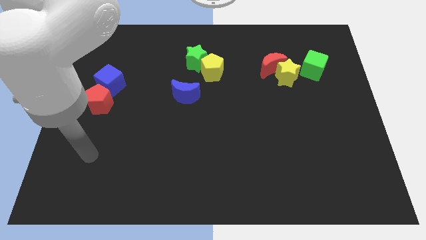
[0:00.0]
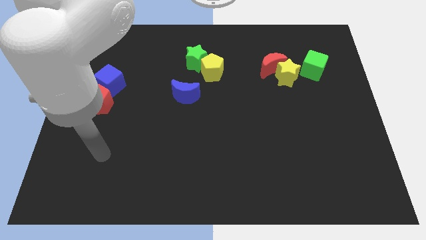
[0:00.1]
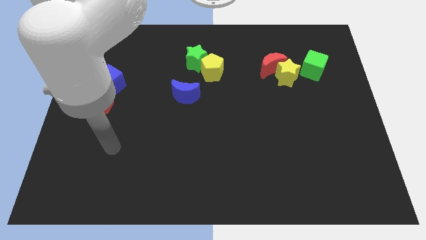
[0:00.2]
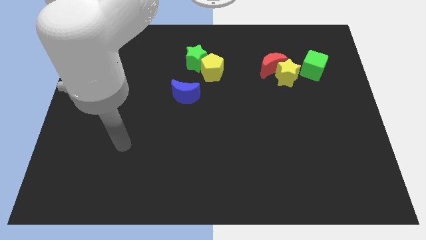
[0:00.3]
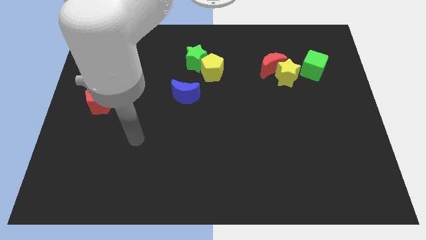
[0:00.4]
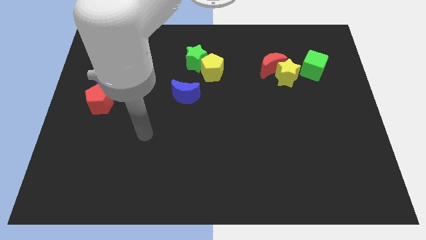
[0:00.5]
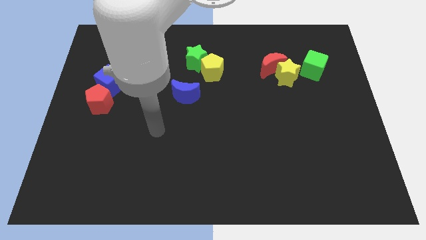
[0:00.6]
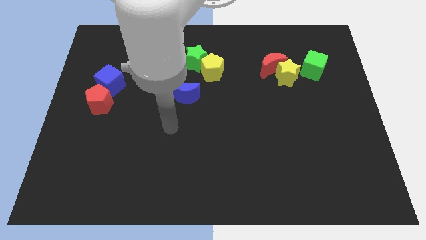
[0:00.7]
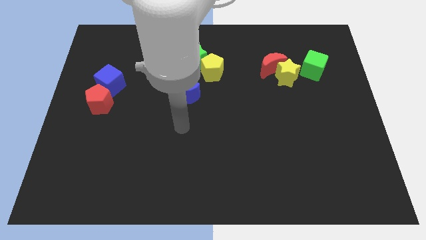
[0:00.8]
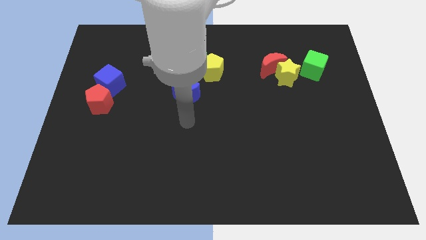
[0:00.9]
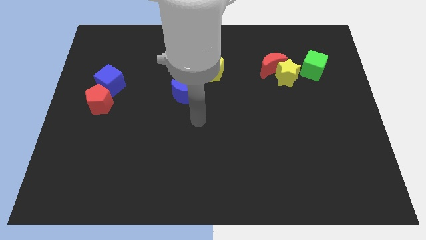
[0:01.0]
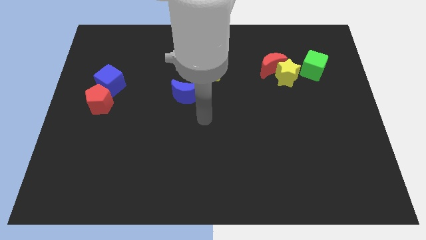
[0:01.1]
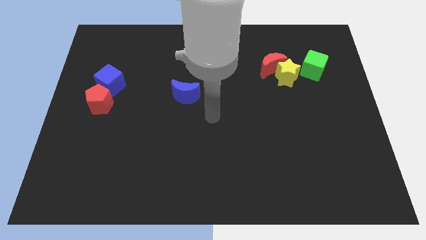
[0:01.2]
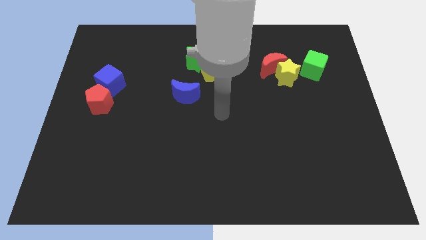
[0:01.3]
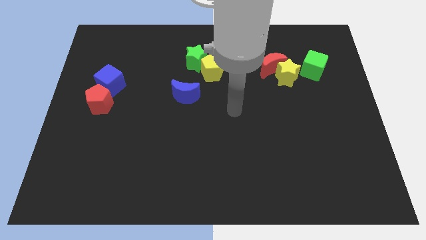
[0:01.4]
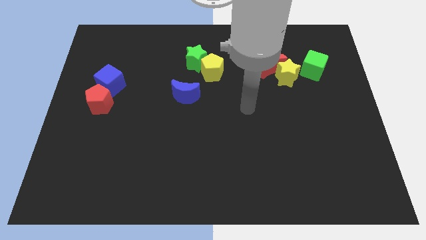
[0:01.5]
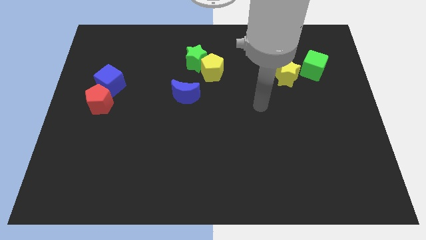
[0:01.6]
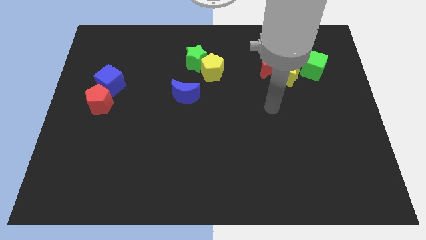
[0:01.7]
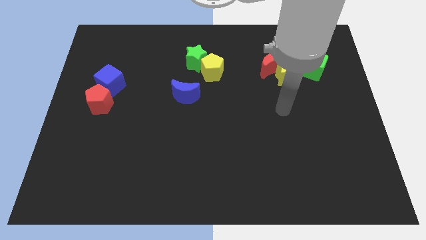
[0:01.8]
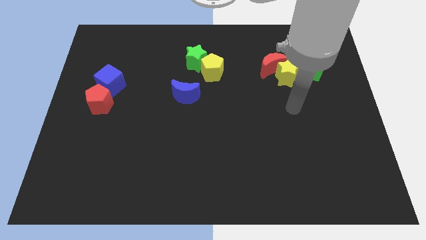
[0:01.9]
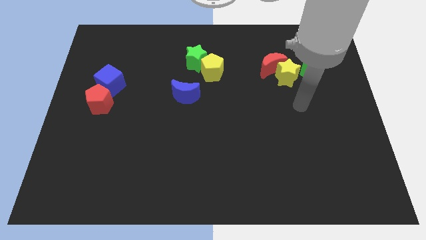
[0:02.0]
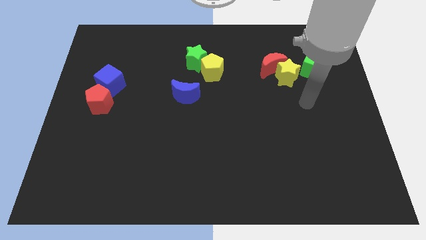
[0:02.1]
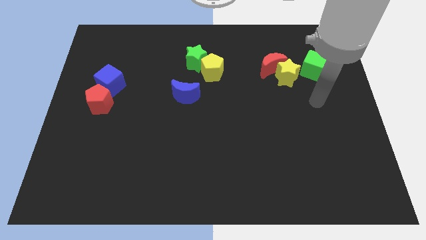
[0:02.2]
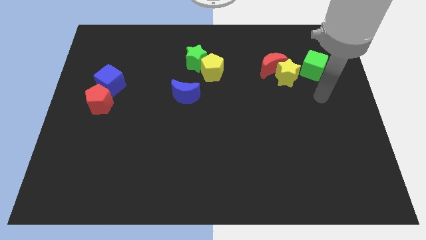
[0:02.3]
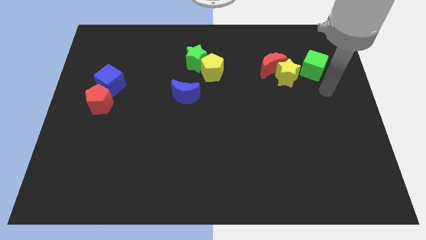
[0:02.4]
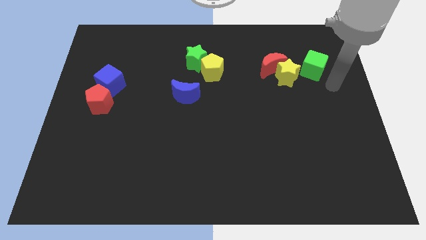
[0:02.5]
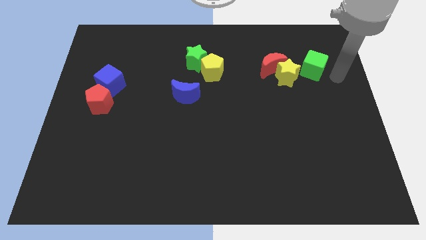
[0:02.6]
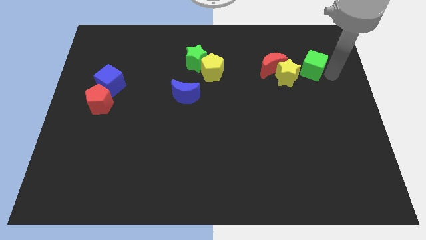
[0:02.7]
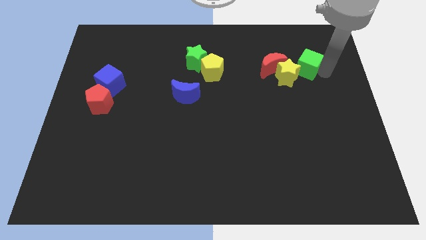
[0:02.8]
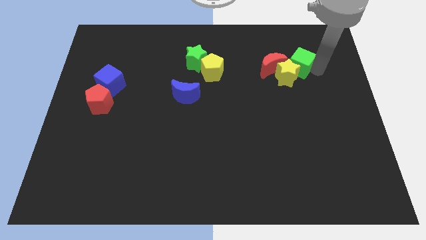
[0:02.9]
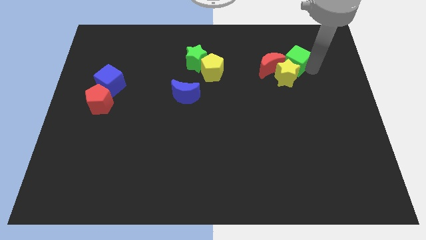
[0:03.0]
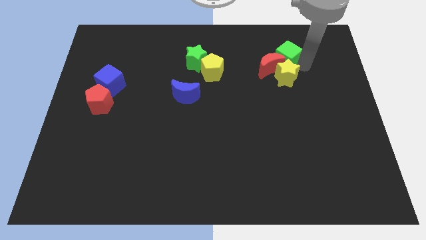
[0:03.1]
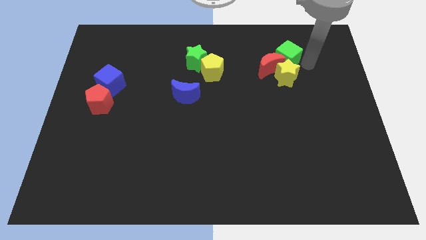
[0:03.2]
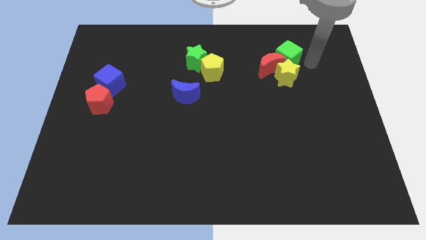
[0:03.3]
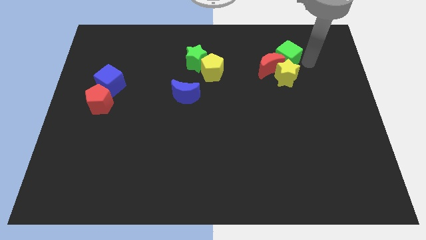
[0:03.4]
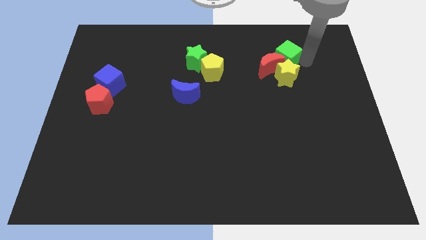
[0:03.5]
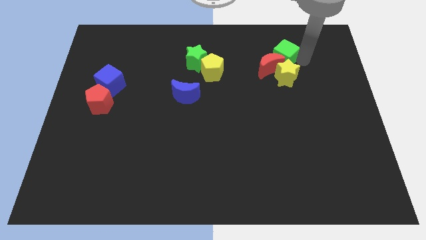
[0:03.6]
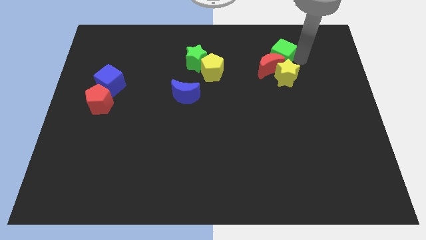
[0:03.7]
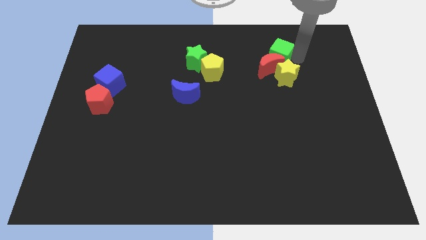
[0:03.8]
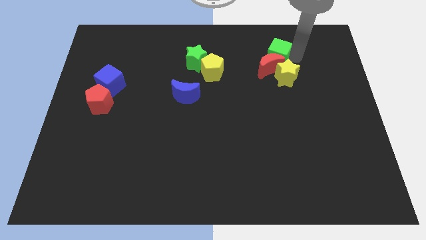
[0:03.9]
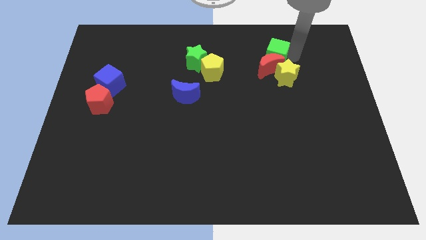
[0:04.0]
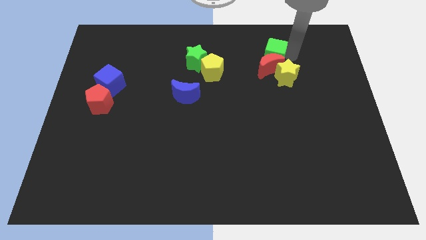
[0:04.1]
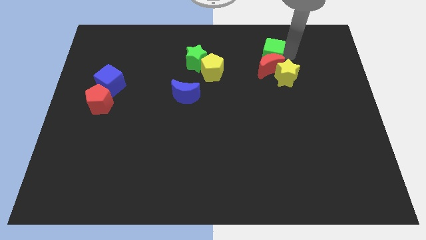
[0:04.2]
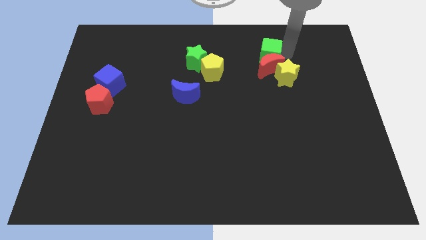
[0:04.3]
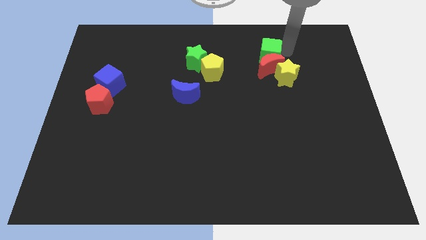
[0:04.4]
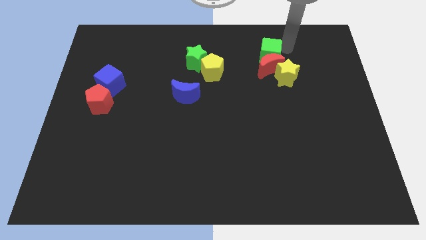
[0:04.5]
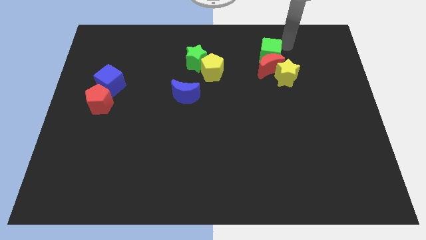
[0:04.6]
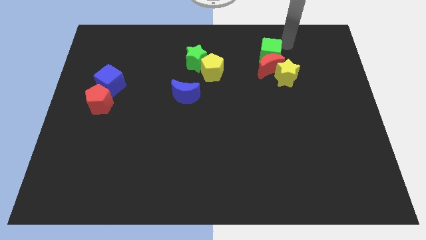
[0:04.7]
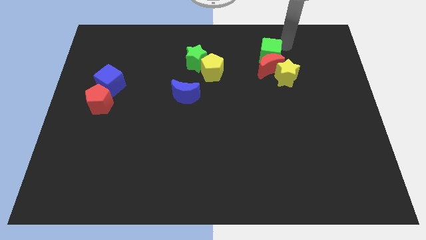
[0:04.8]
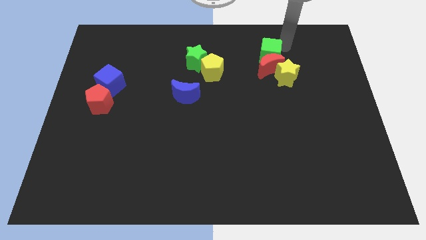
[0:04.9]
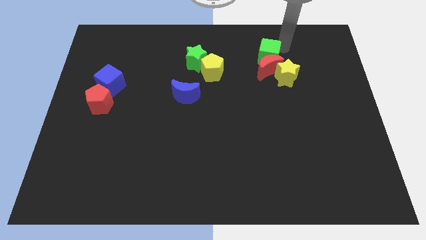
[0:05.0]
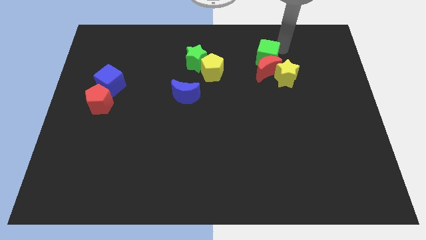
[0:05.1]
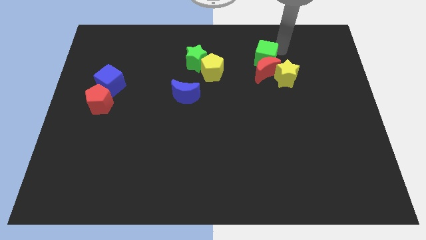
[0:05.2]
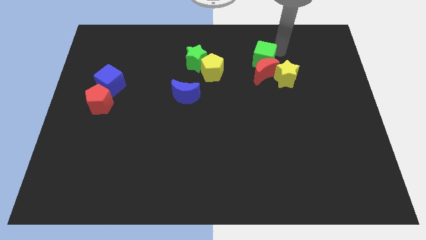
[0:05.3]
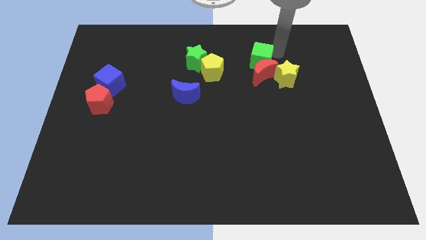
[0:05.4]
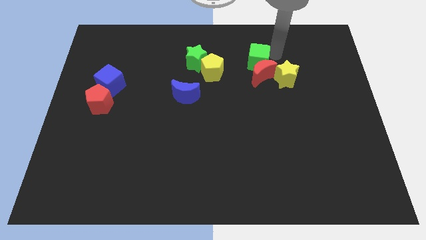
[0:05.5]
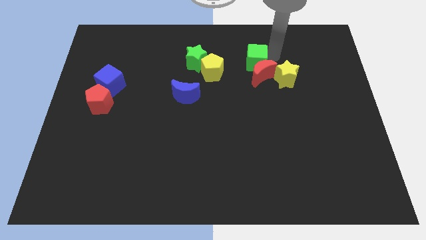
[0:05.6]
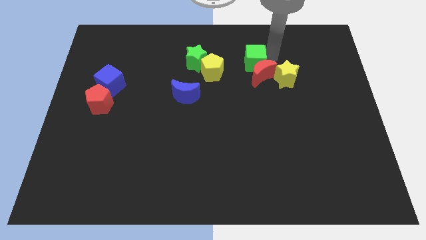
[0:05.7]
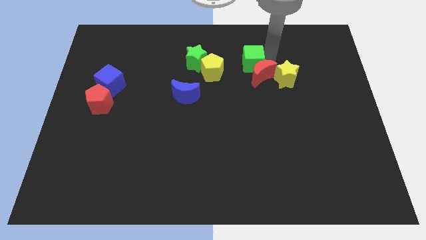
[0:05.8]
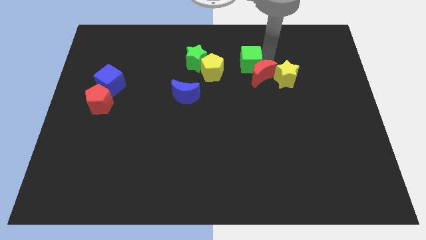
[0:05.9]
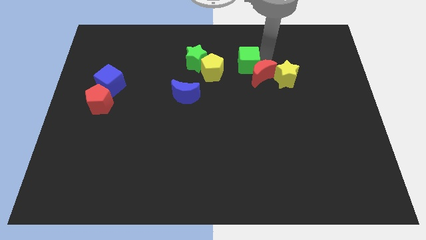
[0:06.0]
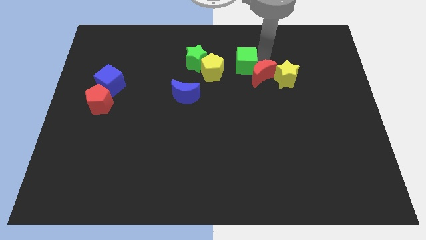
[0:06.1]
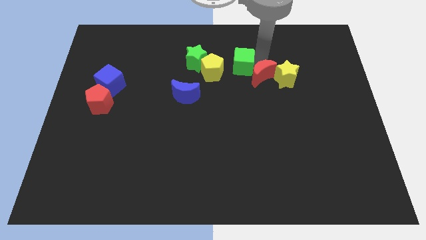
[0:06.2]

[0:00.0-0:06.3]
slide the green cube to the left side of the yellow star
